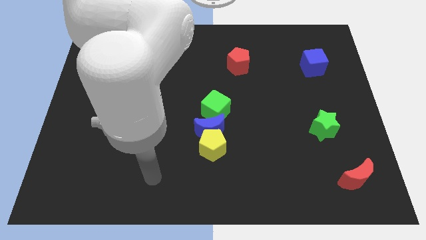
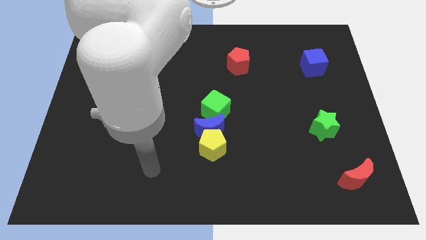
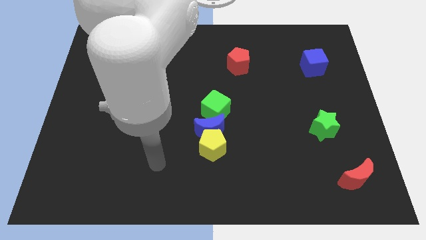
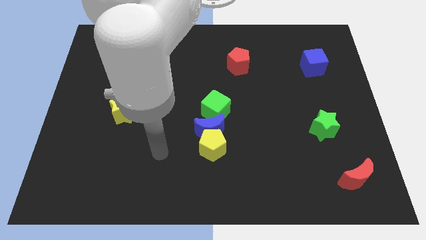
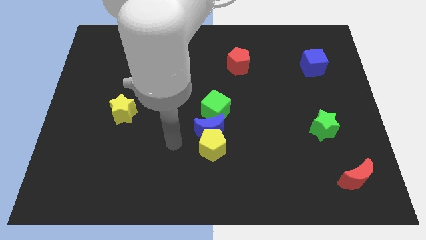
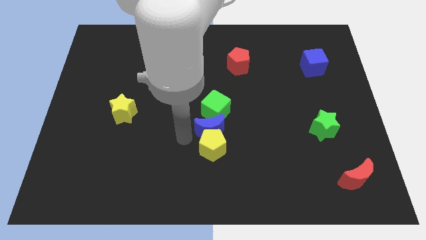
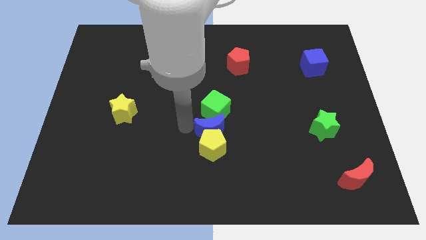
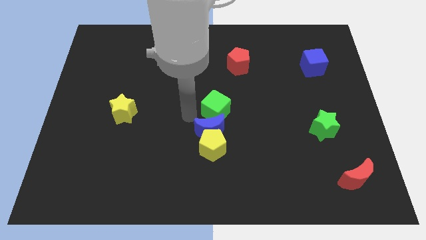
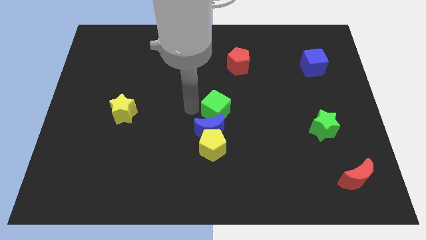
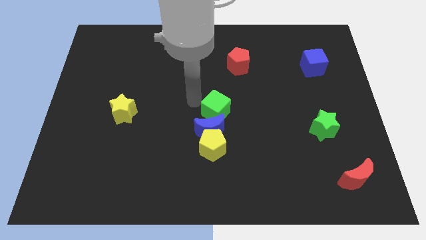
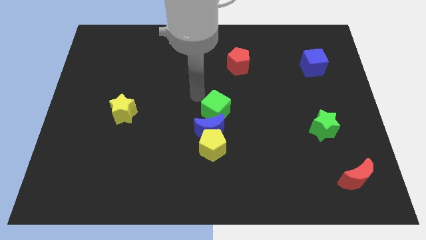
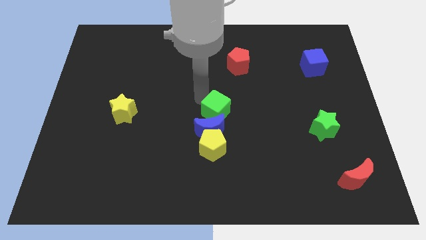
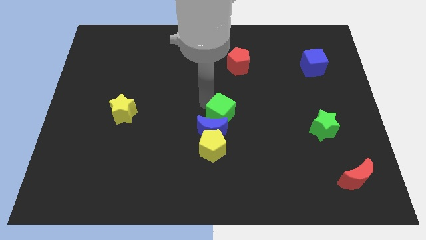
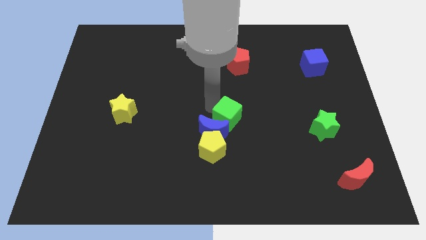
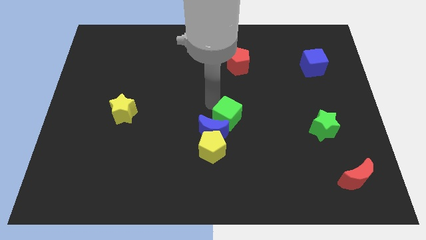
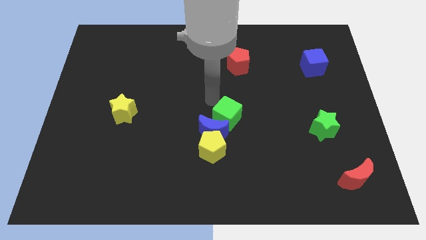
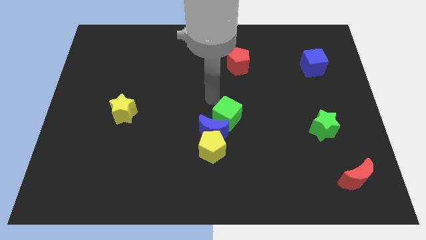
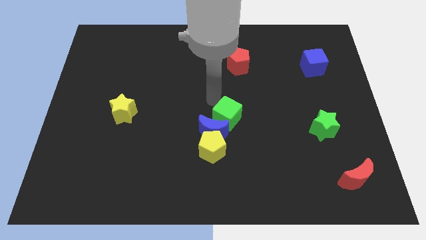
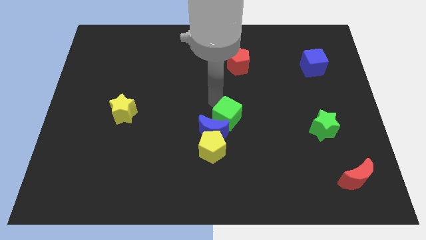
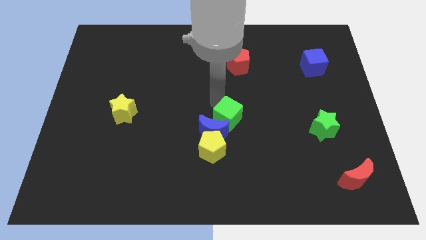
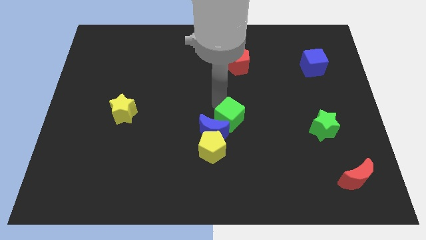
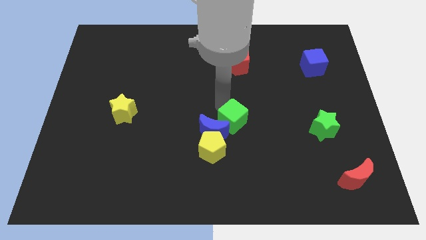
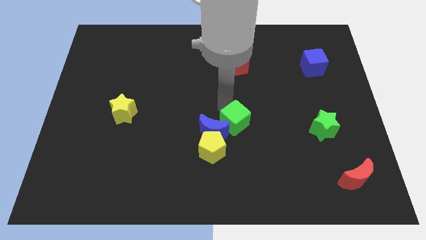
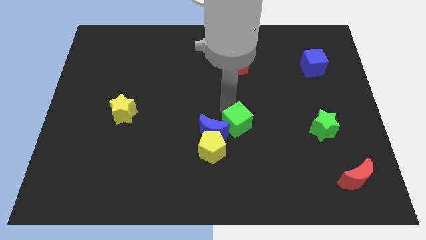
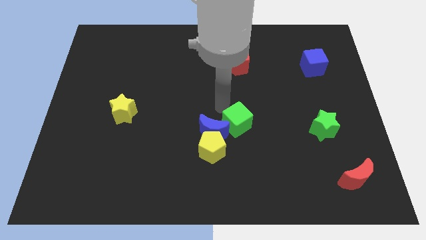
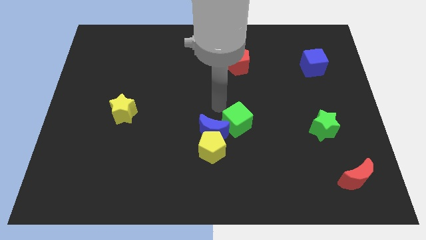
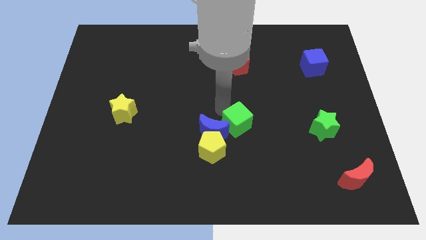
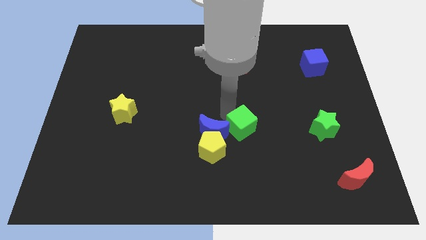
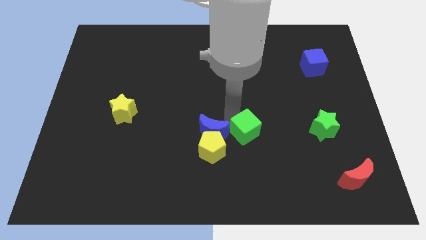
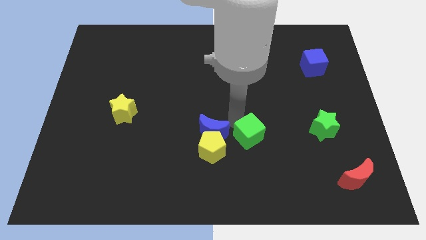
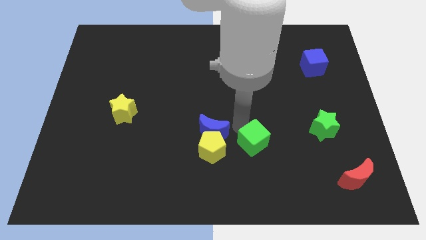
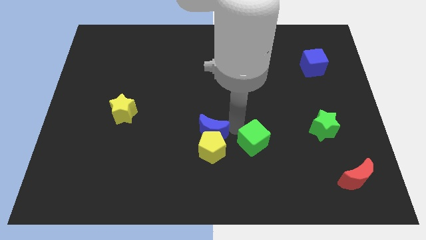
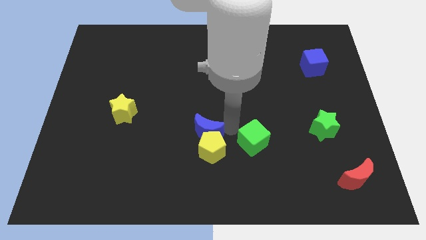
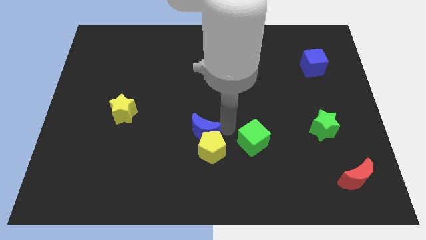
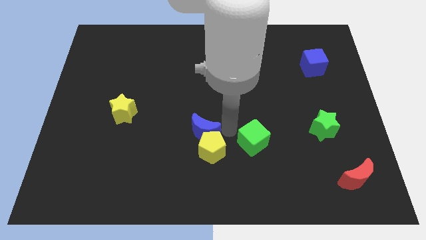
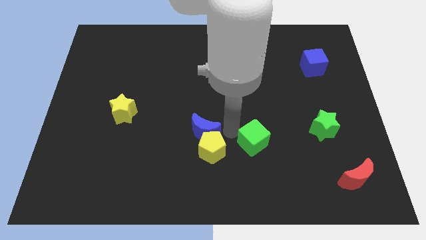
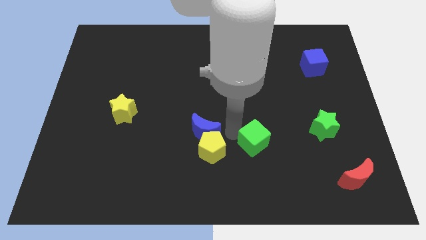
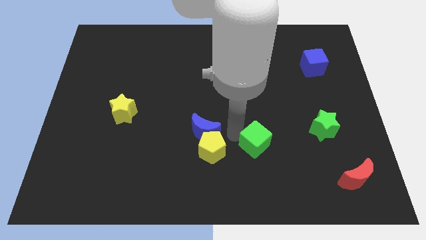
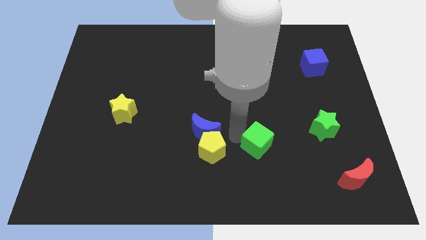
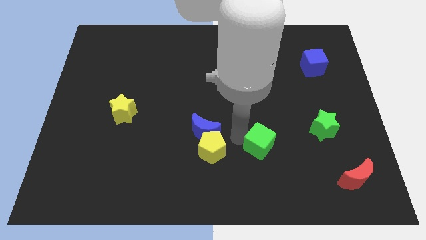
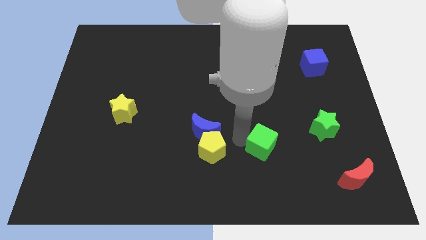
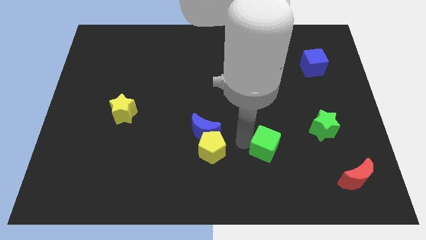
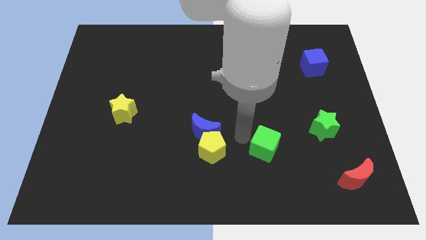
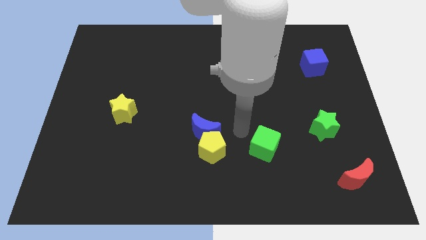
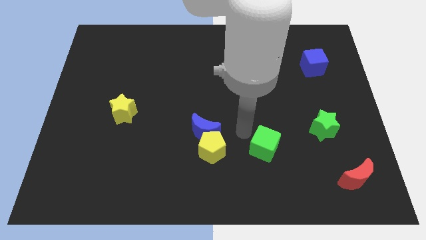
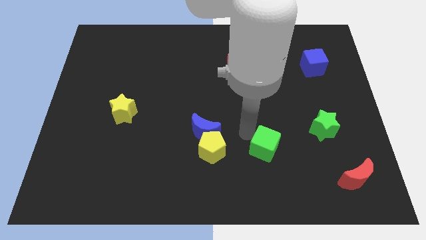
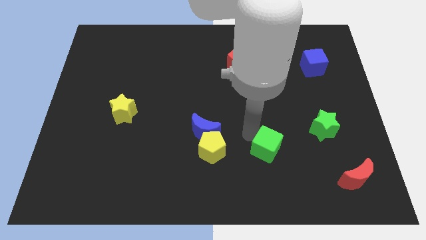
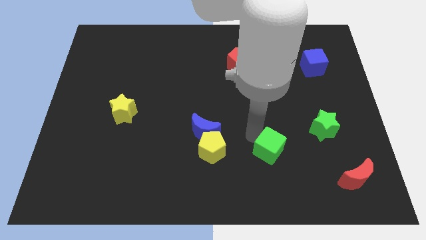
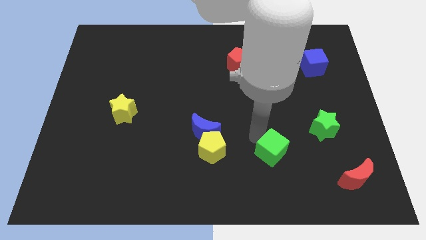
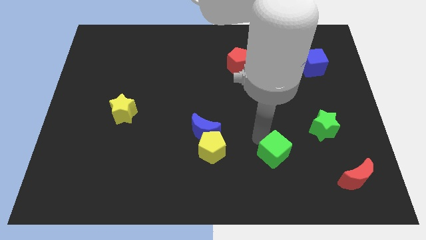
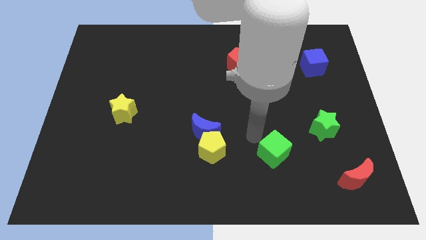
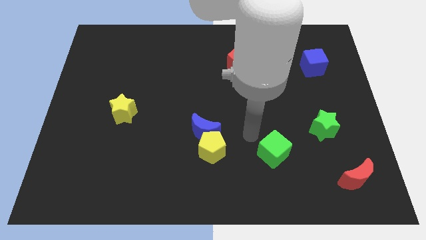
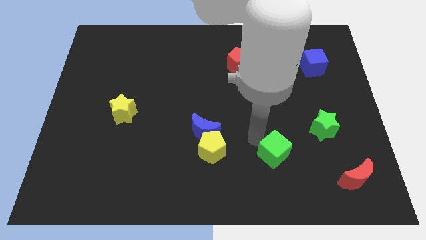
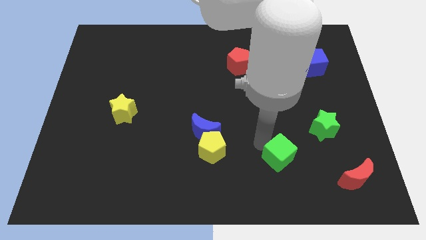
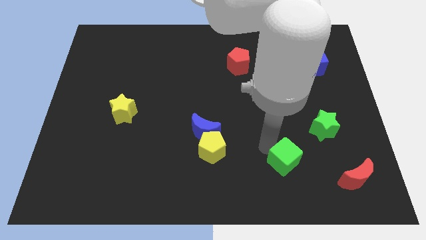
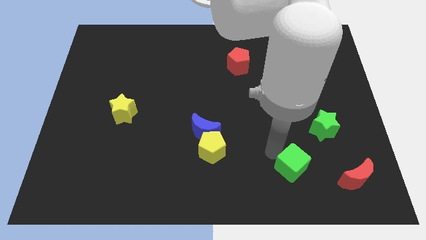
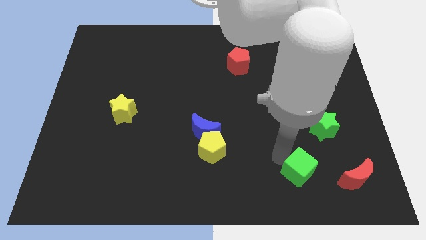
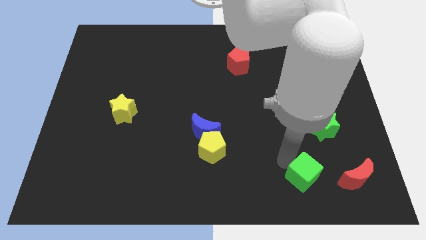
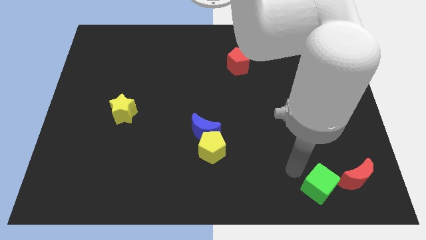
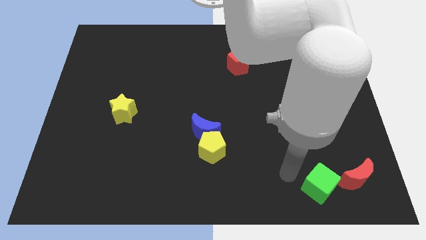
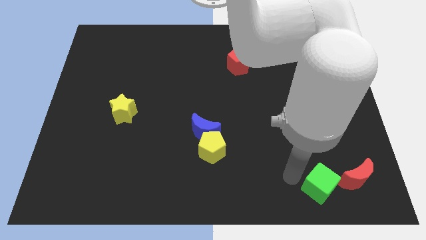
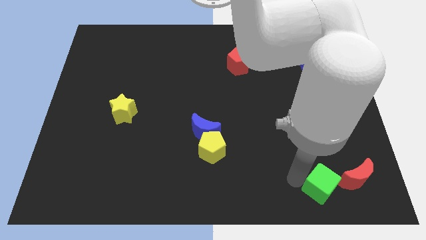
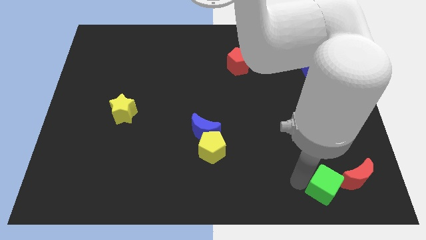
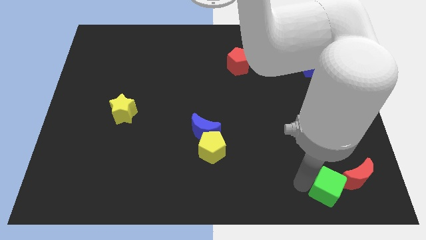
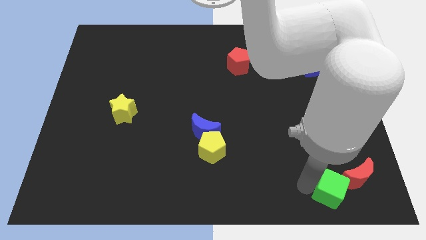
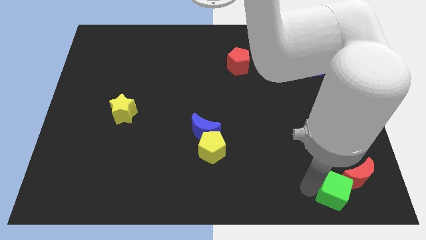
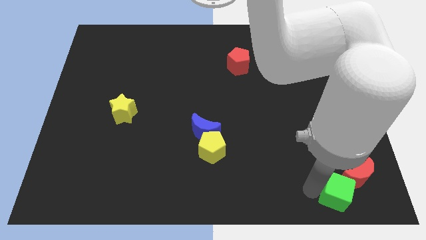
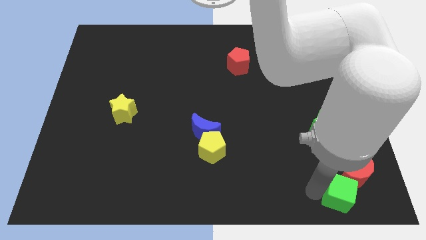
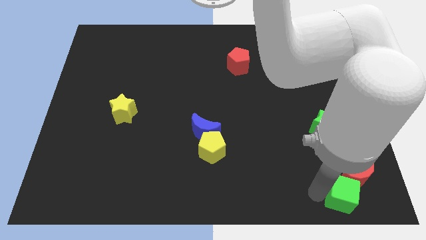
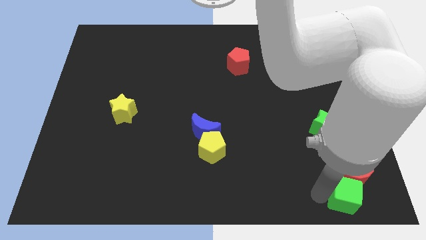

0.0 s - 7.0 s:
slide the green cube to the lower right corner
